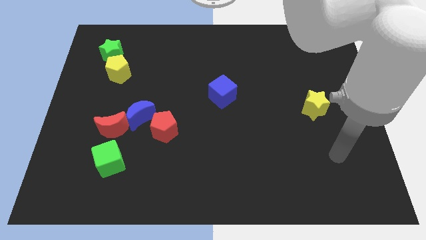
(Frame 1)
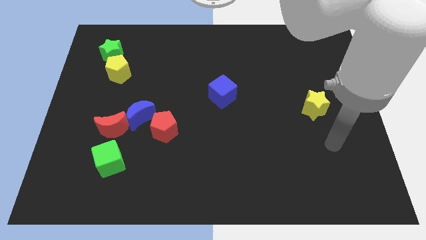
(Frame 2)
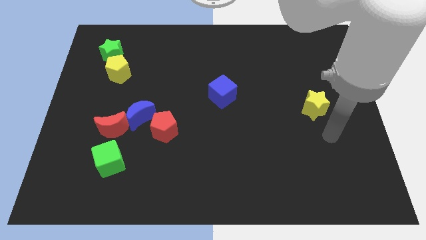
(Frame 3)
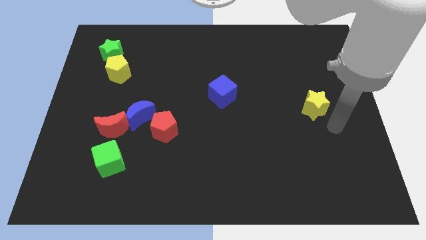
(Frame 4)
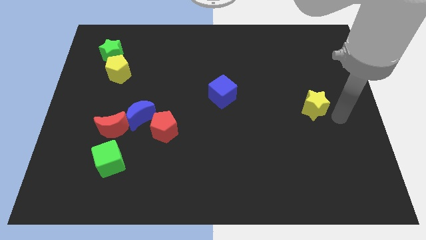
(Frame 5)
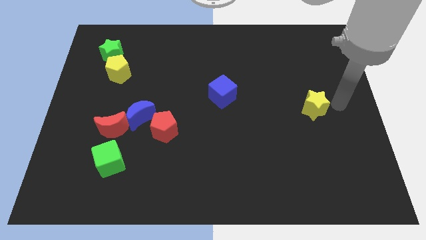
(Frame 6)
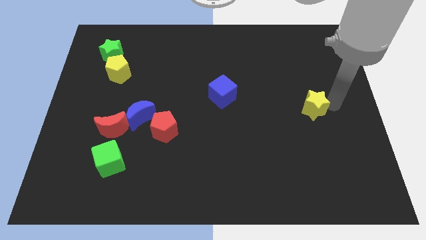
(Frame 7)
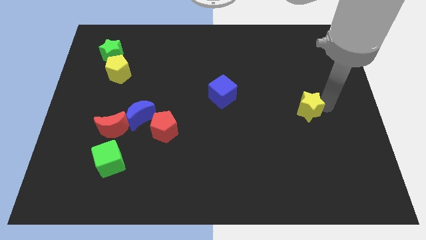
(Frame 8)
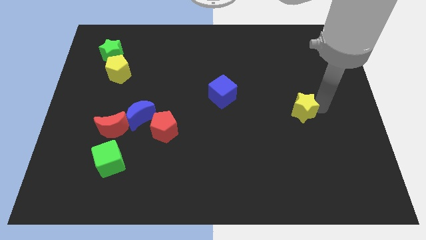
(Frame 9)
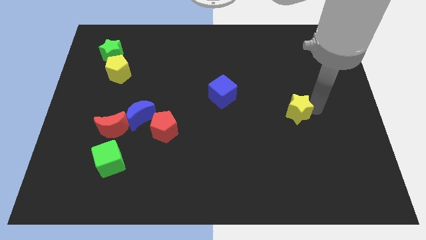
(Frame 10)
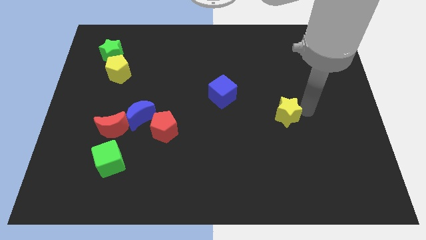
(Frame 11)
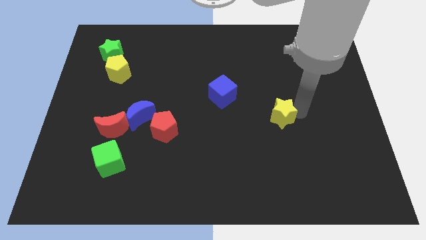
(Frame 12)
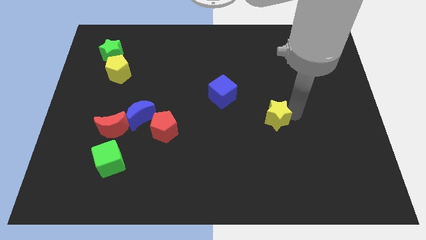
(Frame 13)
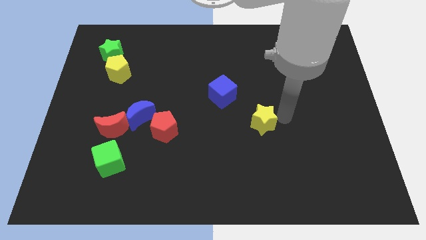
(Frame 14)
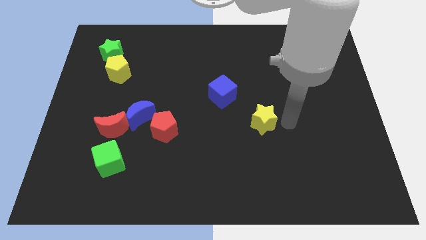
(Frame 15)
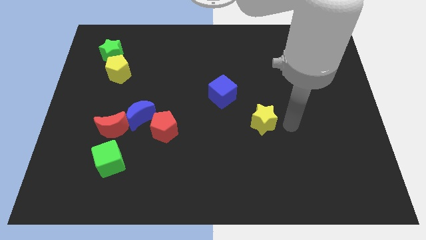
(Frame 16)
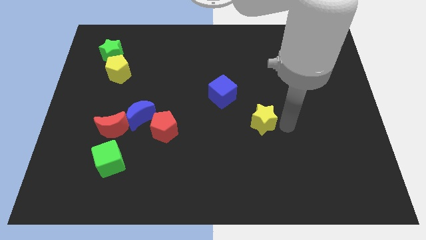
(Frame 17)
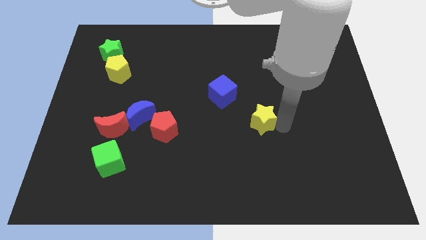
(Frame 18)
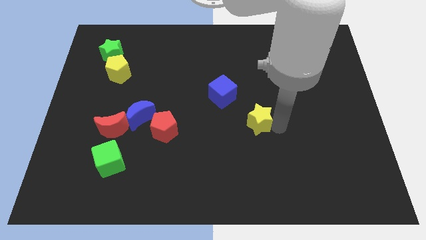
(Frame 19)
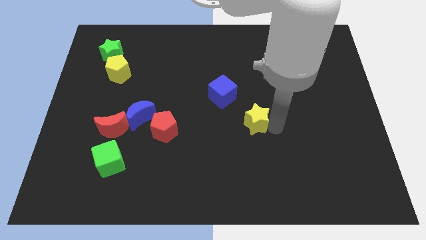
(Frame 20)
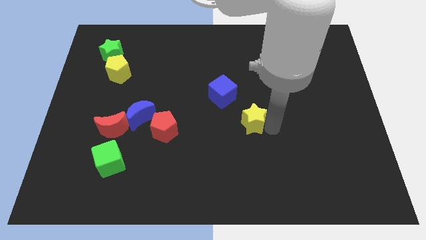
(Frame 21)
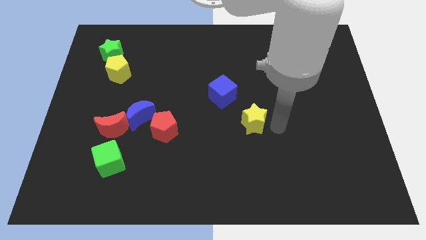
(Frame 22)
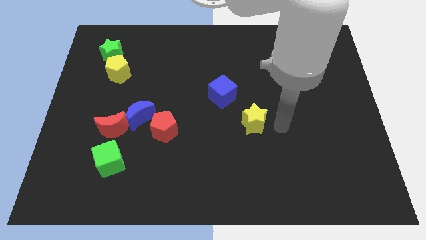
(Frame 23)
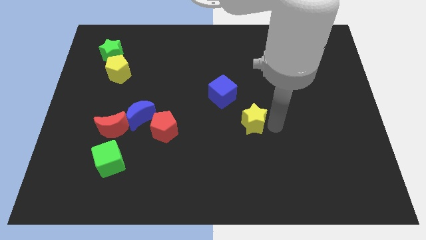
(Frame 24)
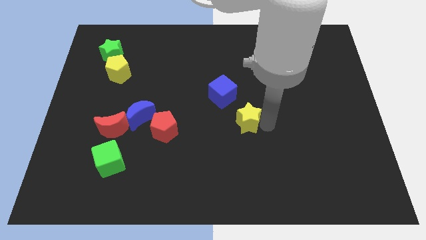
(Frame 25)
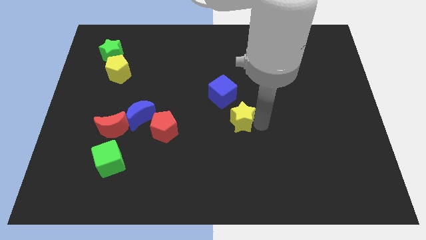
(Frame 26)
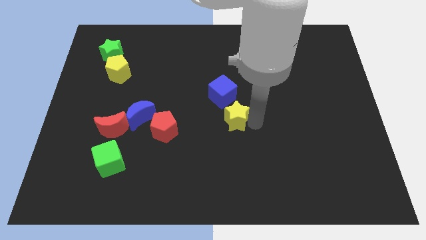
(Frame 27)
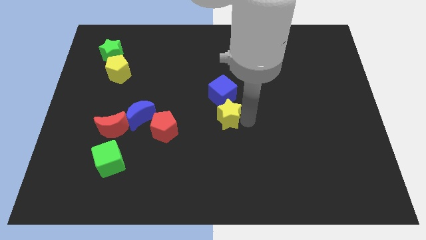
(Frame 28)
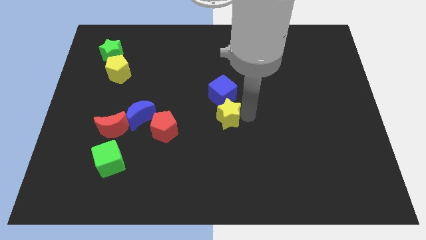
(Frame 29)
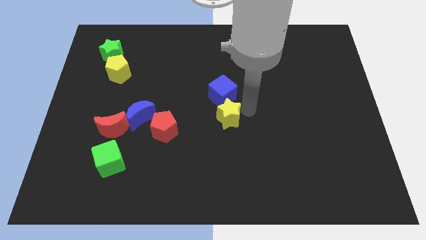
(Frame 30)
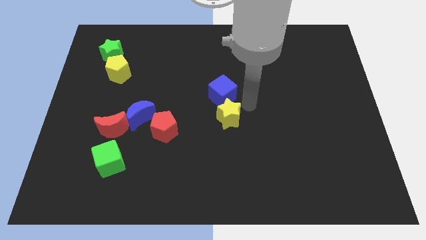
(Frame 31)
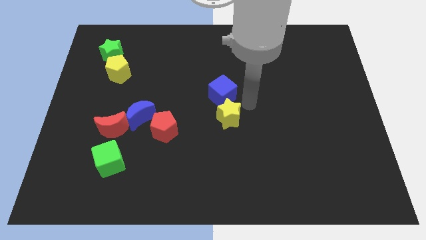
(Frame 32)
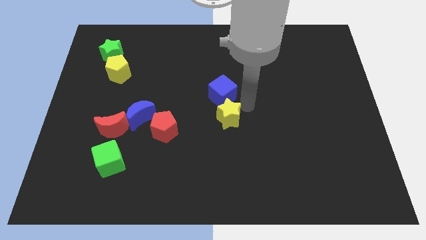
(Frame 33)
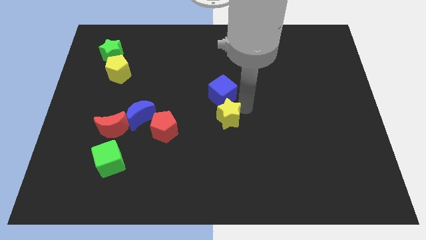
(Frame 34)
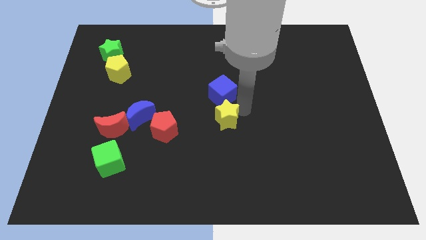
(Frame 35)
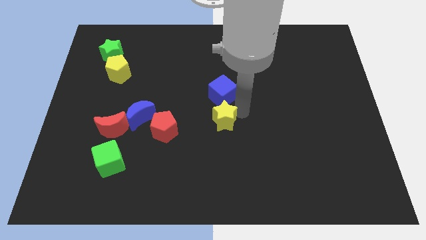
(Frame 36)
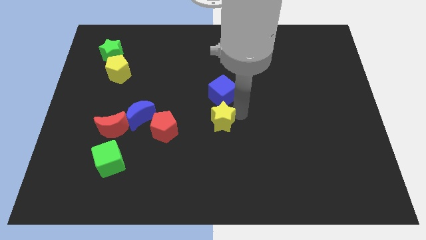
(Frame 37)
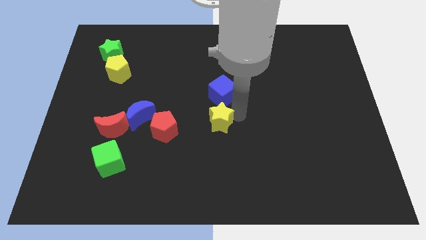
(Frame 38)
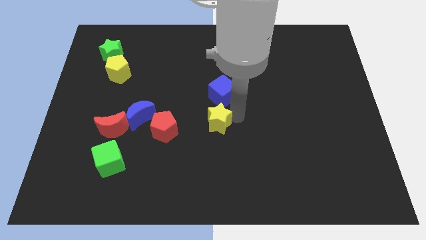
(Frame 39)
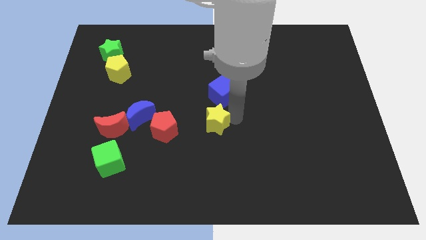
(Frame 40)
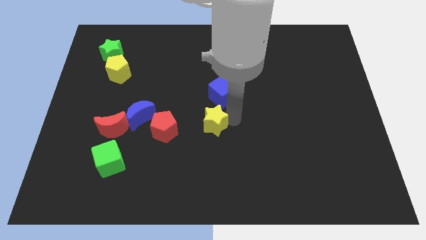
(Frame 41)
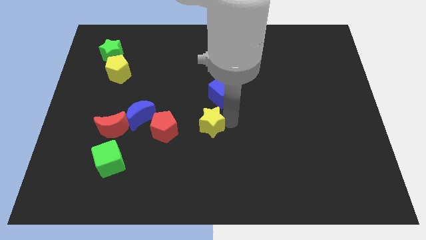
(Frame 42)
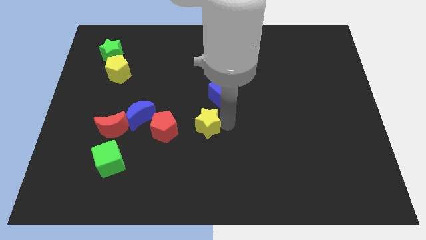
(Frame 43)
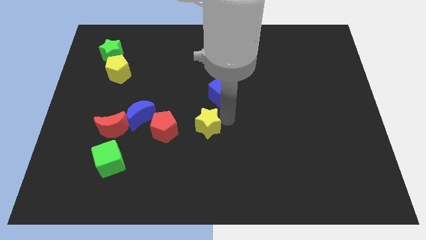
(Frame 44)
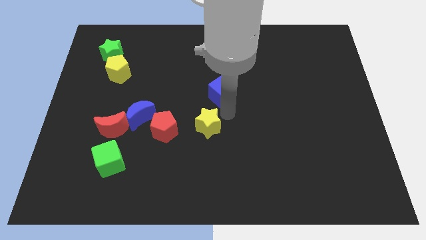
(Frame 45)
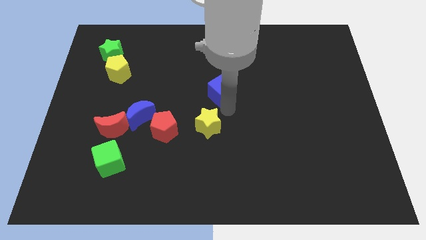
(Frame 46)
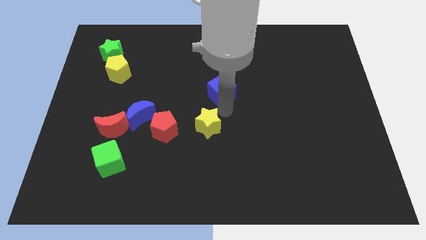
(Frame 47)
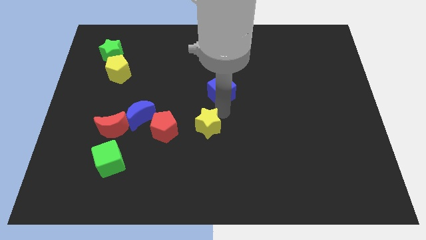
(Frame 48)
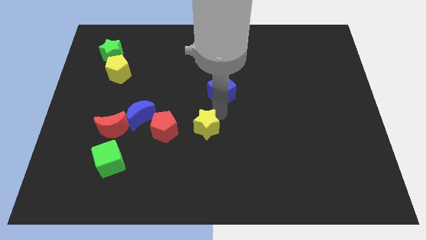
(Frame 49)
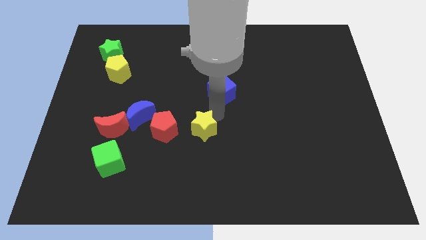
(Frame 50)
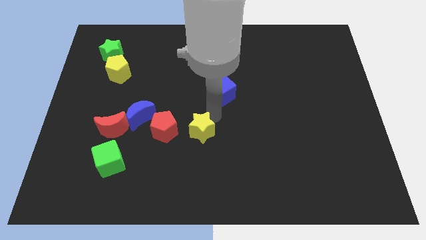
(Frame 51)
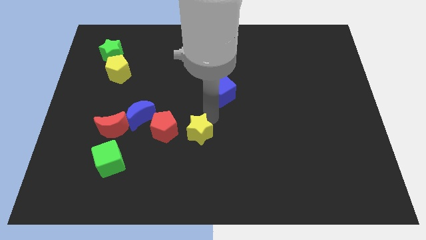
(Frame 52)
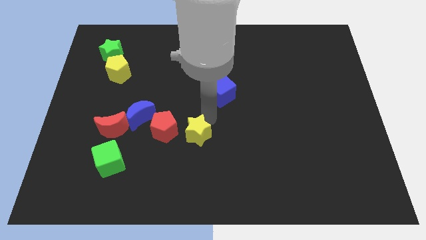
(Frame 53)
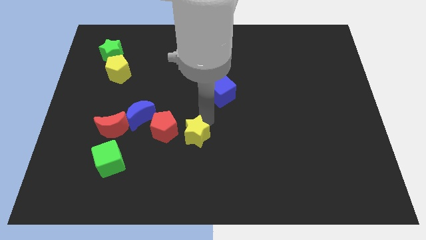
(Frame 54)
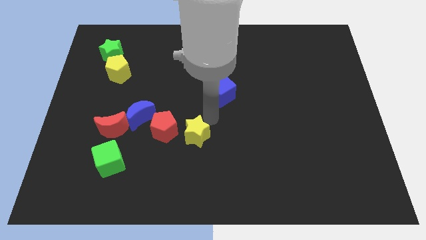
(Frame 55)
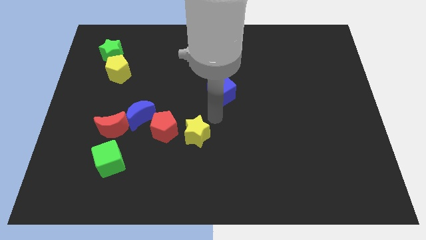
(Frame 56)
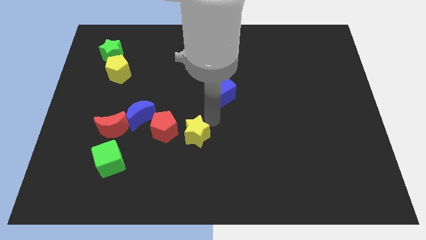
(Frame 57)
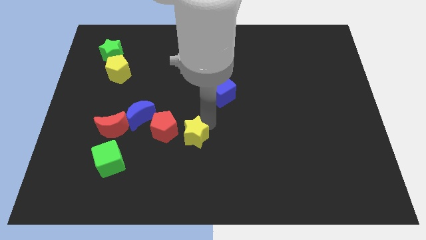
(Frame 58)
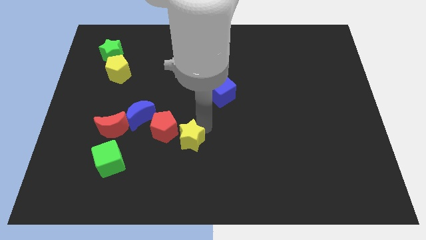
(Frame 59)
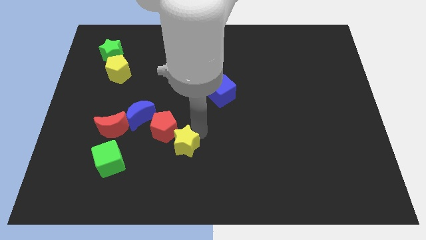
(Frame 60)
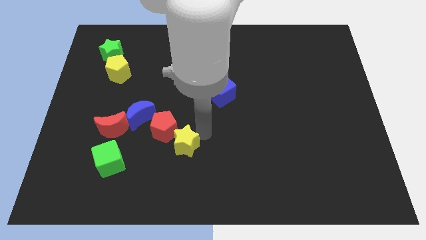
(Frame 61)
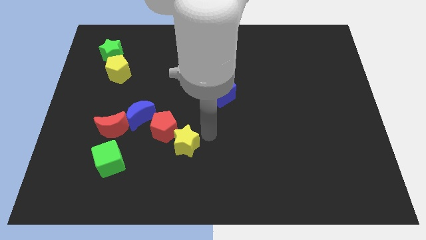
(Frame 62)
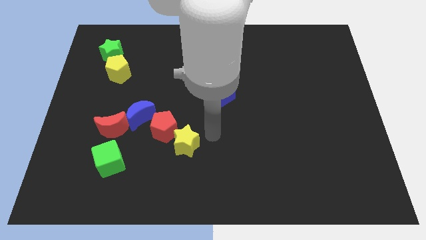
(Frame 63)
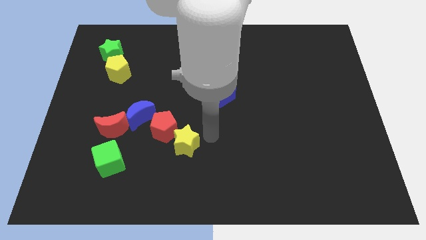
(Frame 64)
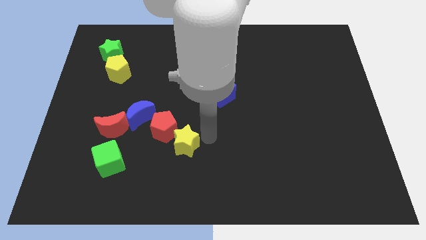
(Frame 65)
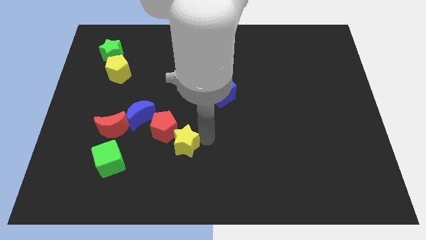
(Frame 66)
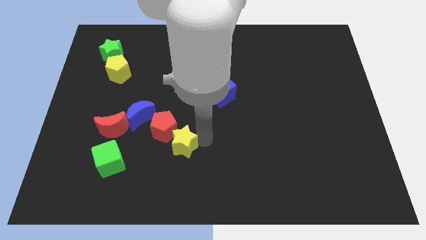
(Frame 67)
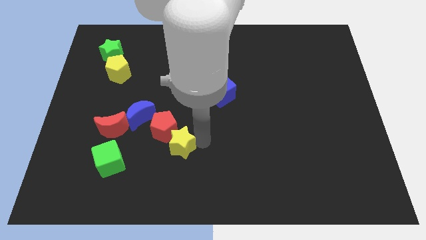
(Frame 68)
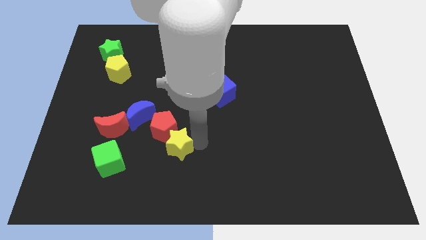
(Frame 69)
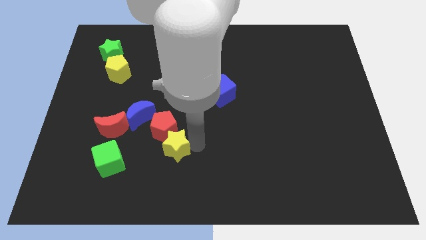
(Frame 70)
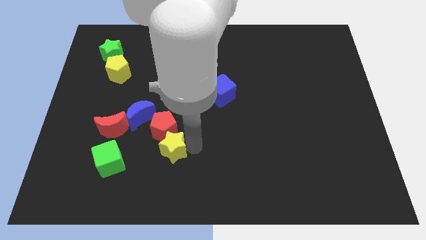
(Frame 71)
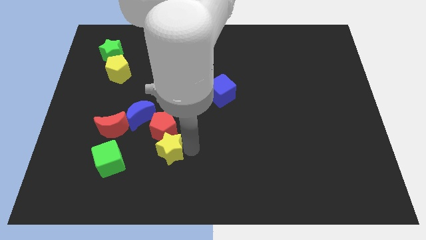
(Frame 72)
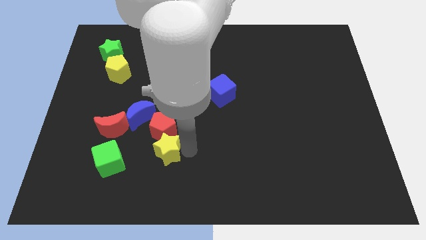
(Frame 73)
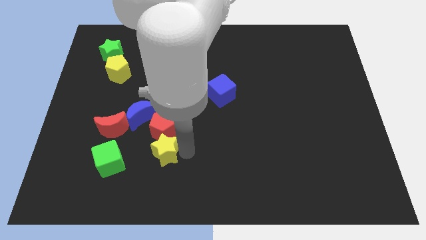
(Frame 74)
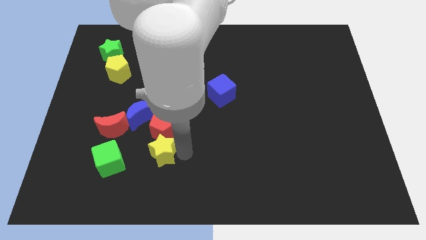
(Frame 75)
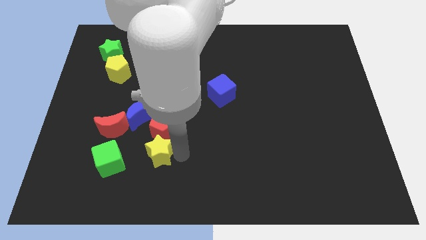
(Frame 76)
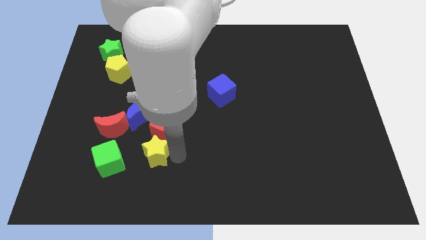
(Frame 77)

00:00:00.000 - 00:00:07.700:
push the yellow star to the bottom right side of the red moon
